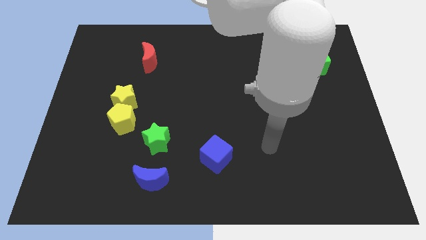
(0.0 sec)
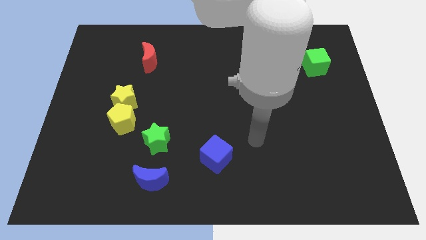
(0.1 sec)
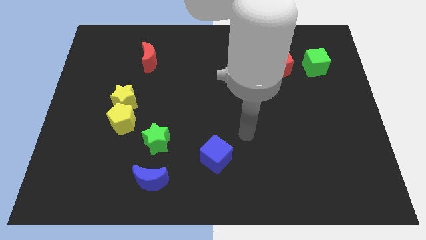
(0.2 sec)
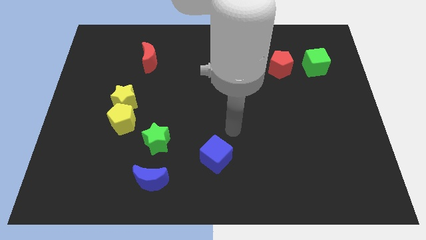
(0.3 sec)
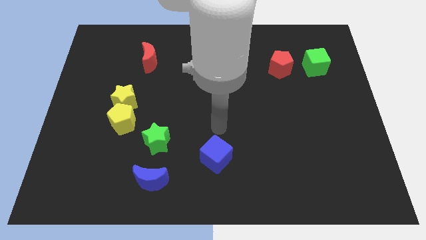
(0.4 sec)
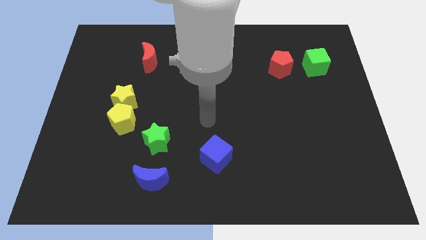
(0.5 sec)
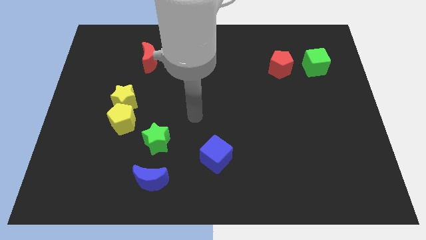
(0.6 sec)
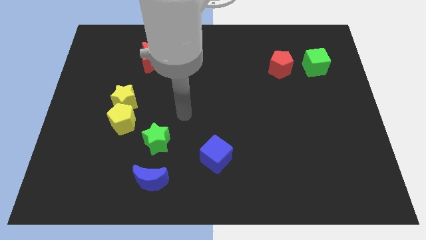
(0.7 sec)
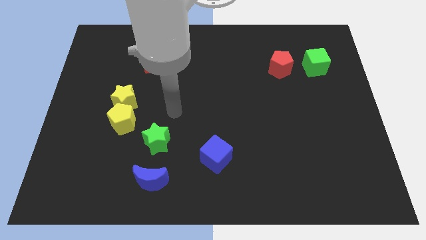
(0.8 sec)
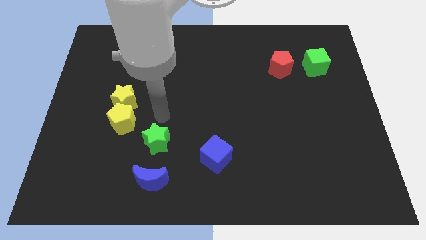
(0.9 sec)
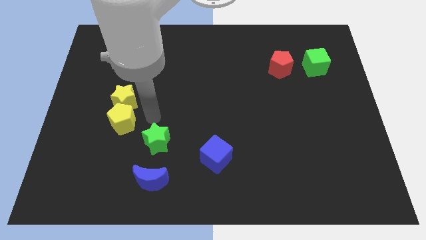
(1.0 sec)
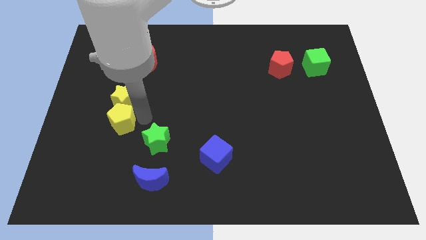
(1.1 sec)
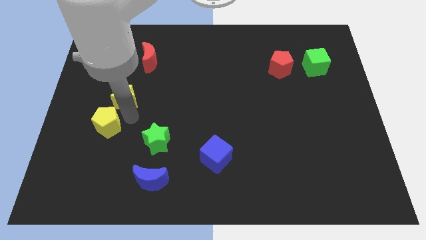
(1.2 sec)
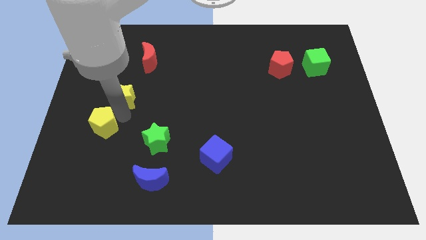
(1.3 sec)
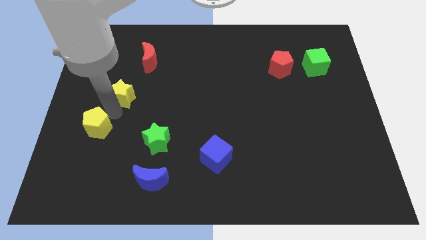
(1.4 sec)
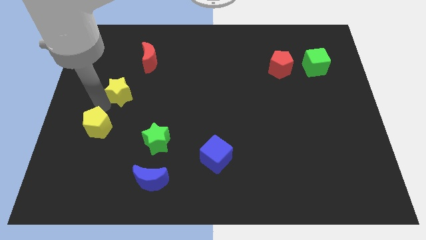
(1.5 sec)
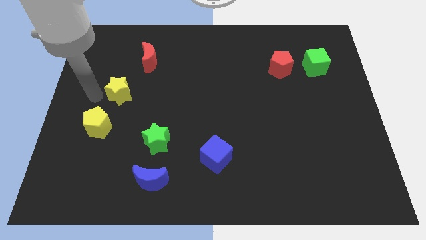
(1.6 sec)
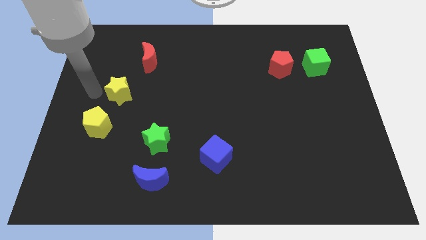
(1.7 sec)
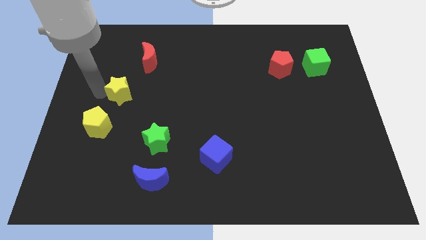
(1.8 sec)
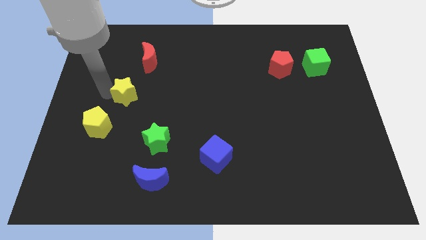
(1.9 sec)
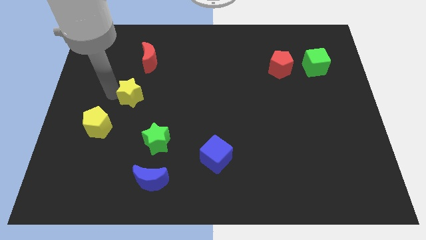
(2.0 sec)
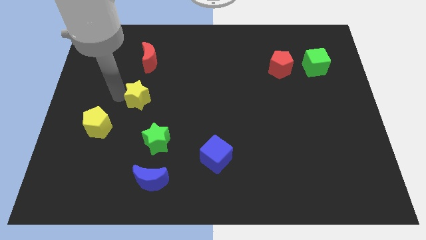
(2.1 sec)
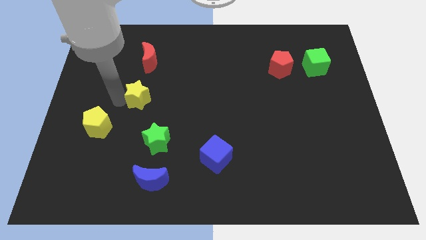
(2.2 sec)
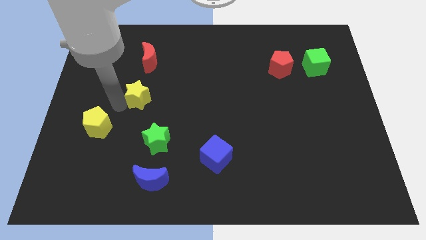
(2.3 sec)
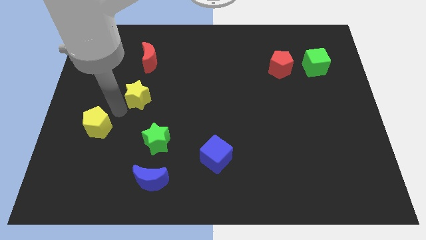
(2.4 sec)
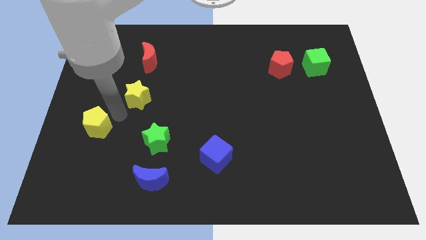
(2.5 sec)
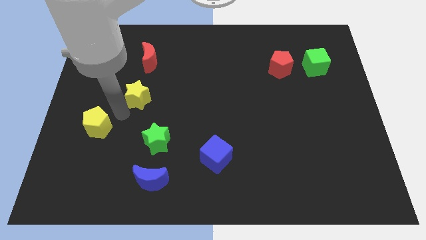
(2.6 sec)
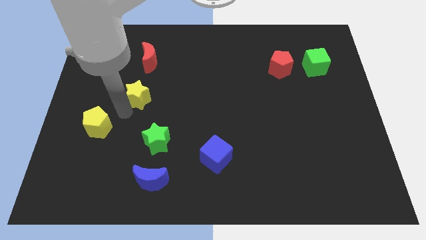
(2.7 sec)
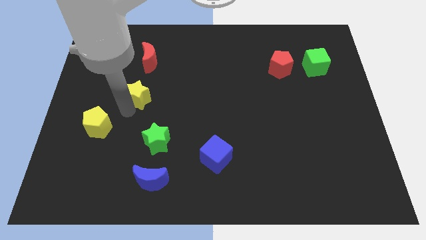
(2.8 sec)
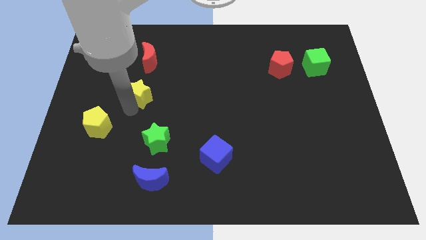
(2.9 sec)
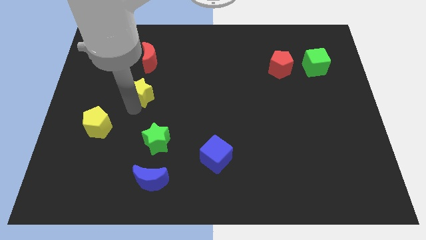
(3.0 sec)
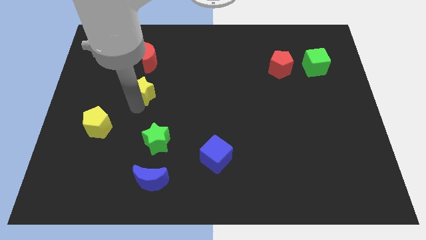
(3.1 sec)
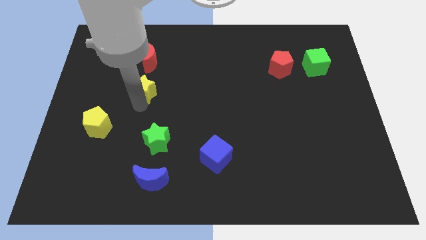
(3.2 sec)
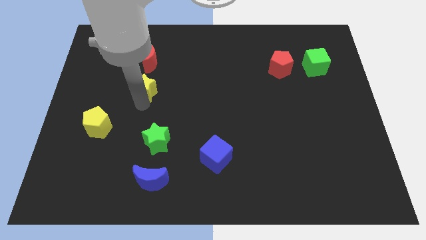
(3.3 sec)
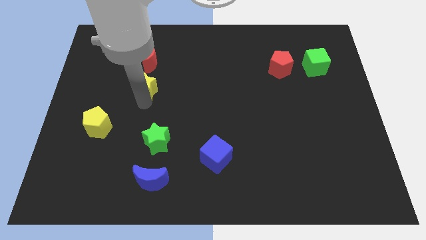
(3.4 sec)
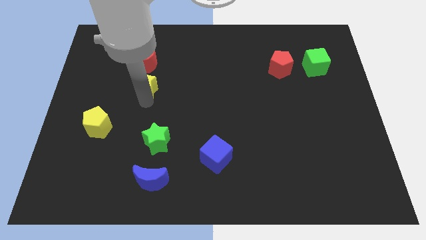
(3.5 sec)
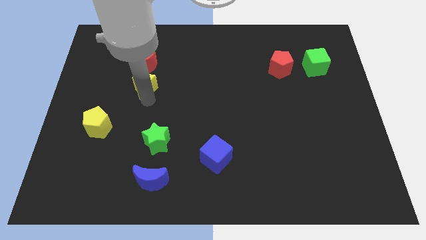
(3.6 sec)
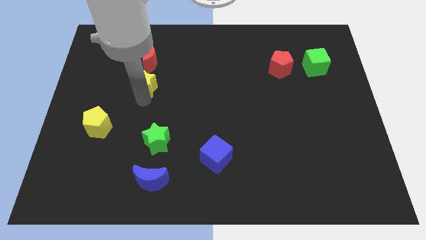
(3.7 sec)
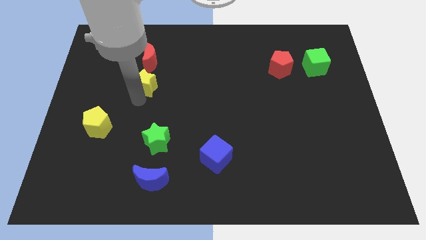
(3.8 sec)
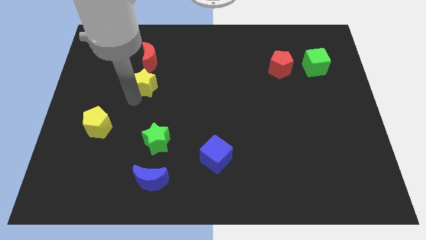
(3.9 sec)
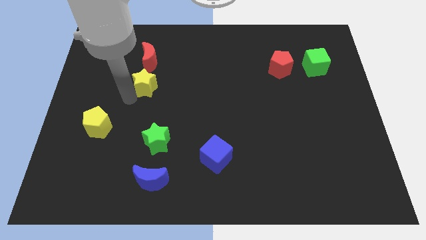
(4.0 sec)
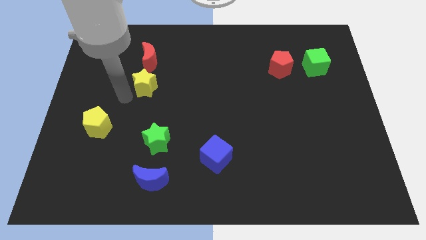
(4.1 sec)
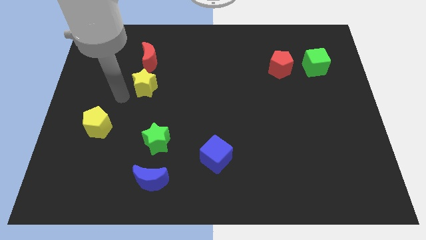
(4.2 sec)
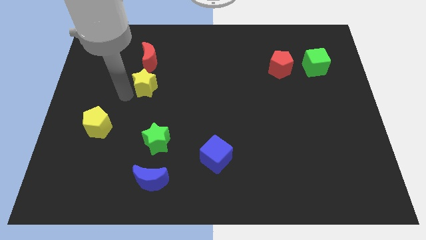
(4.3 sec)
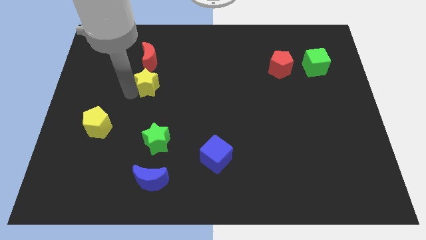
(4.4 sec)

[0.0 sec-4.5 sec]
move the yellow star a little bit diagonally upwards and right

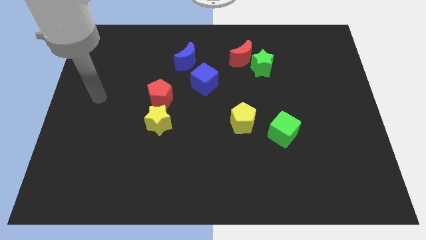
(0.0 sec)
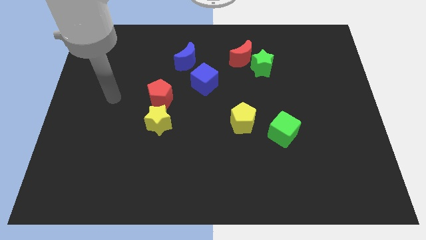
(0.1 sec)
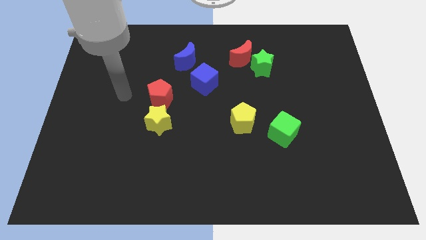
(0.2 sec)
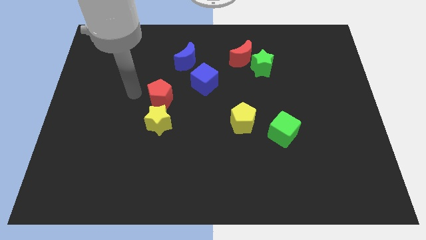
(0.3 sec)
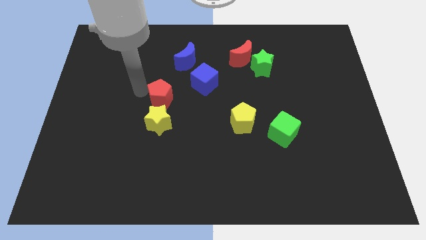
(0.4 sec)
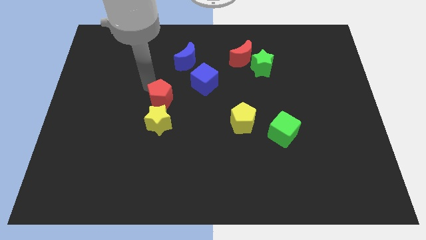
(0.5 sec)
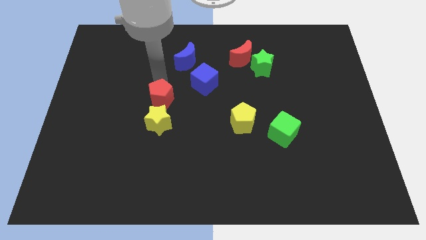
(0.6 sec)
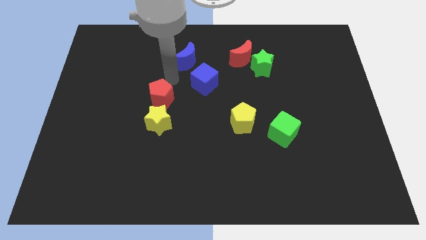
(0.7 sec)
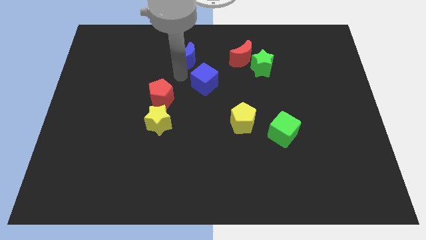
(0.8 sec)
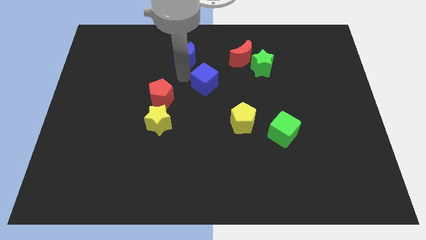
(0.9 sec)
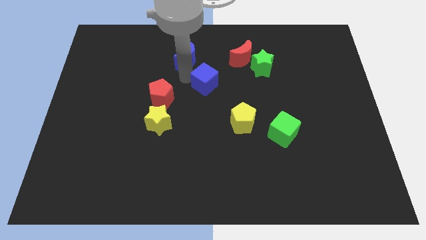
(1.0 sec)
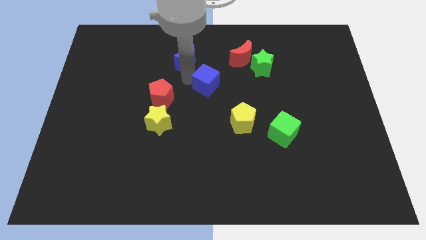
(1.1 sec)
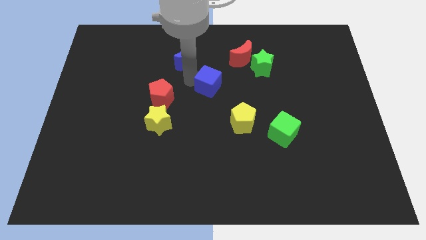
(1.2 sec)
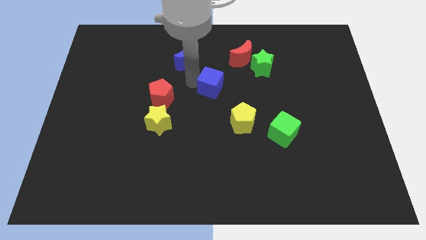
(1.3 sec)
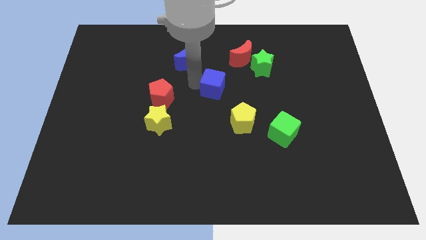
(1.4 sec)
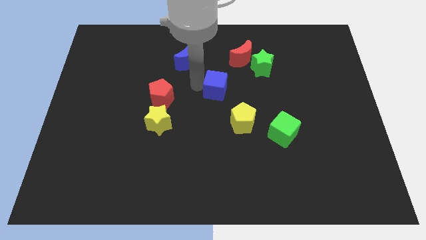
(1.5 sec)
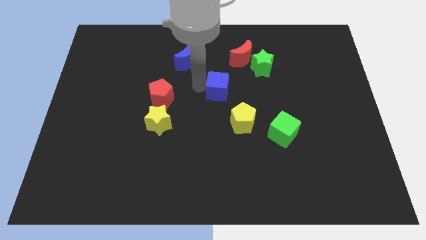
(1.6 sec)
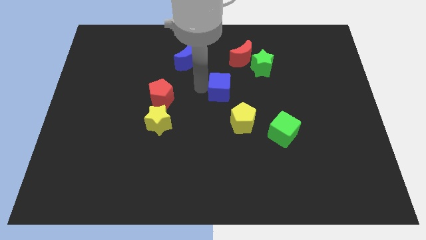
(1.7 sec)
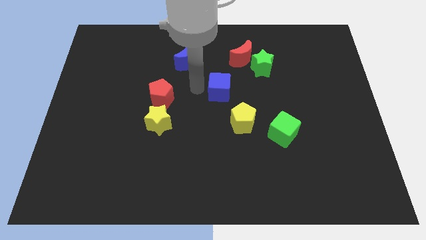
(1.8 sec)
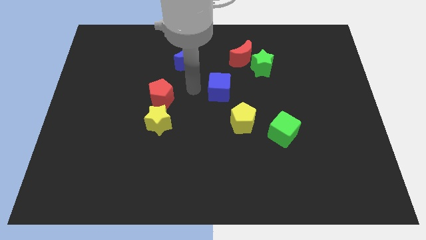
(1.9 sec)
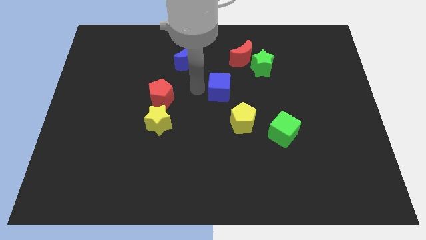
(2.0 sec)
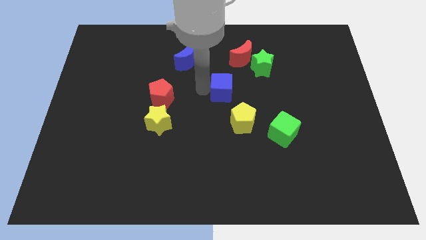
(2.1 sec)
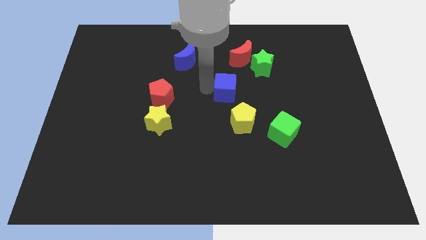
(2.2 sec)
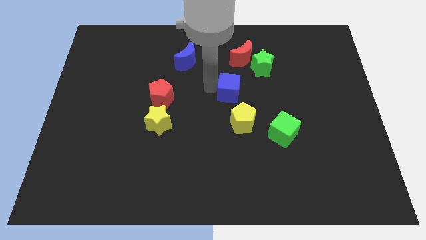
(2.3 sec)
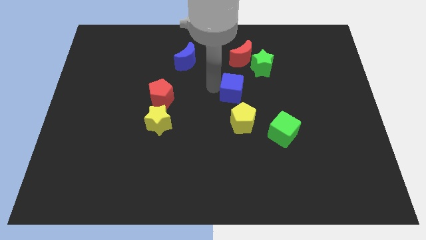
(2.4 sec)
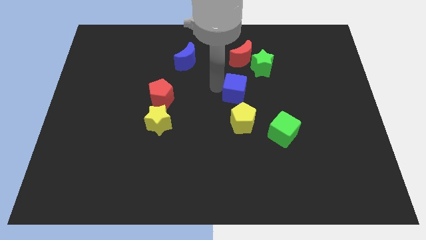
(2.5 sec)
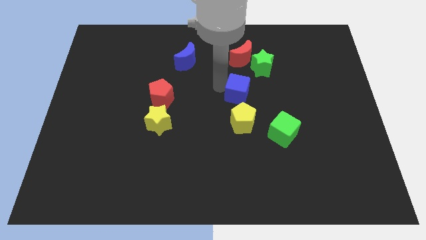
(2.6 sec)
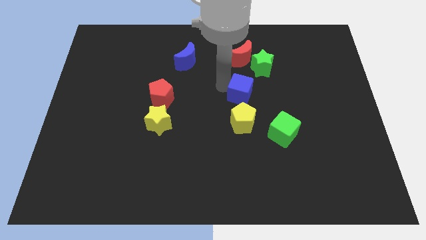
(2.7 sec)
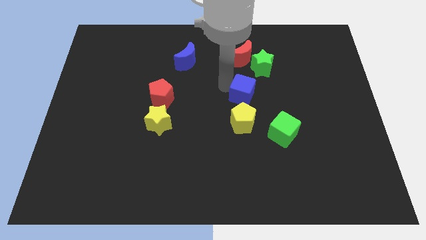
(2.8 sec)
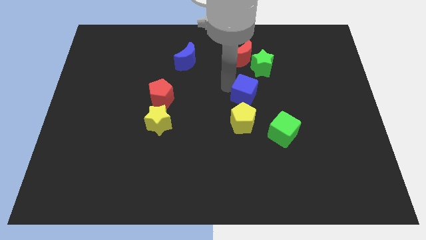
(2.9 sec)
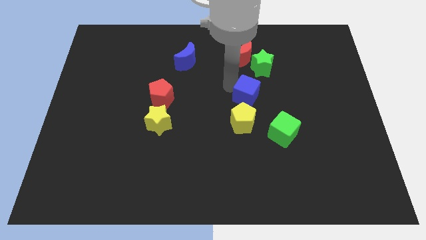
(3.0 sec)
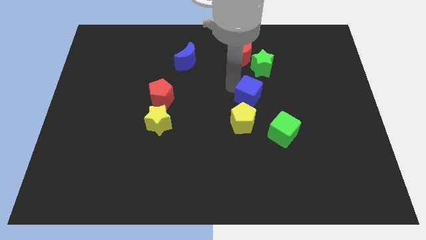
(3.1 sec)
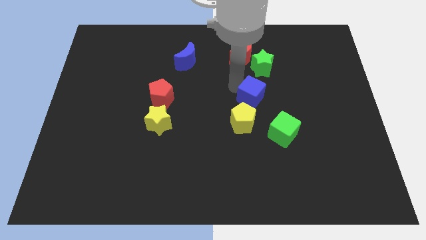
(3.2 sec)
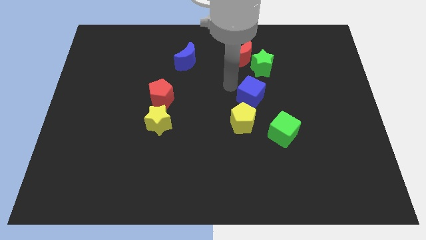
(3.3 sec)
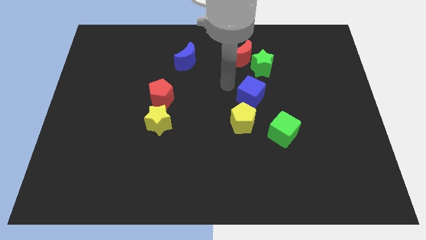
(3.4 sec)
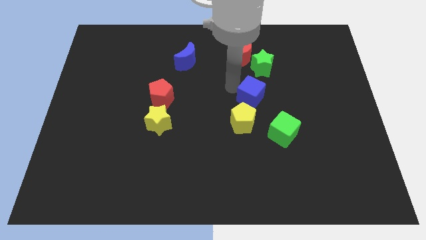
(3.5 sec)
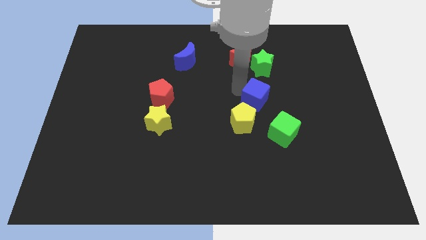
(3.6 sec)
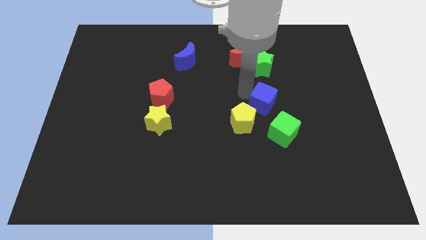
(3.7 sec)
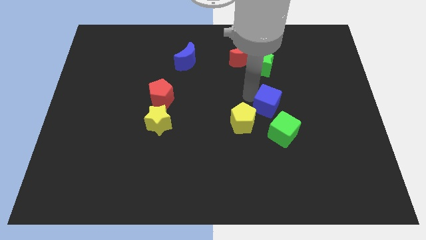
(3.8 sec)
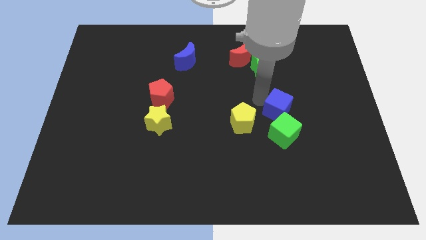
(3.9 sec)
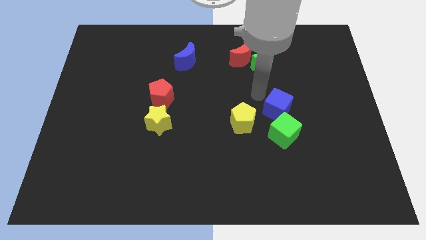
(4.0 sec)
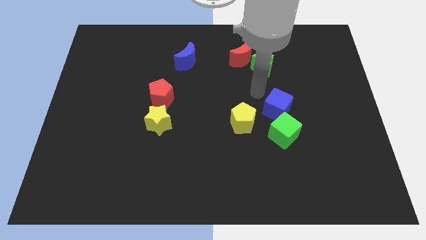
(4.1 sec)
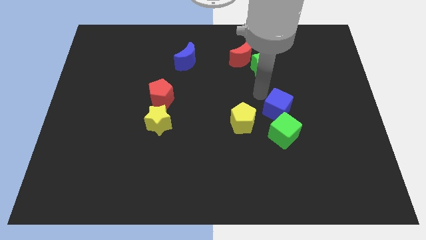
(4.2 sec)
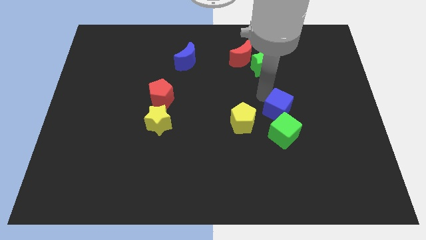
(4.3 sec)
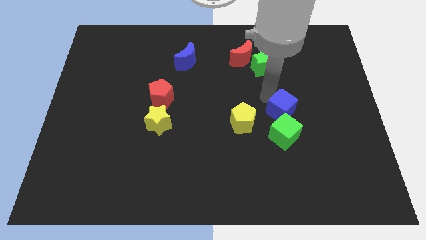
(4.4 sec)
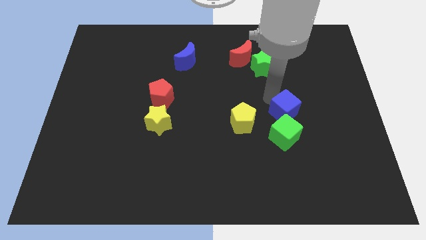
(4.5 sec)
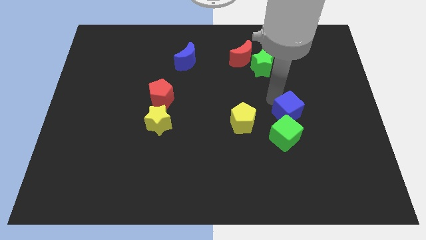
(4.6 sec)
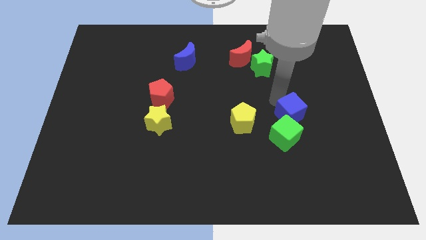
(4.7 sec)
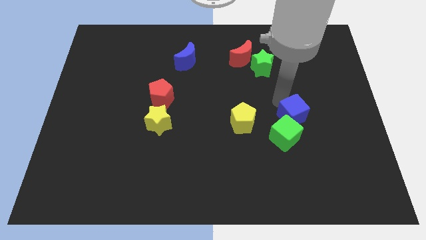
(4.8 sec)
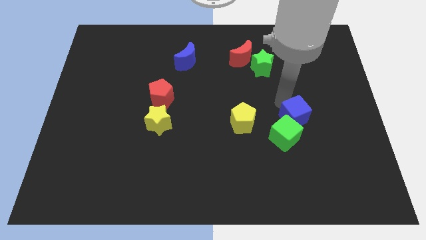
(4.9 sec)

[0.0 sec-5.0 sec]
move the blue cube down and then to the right
